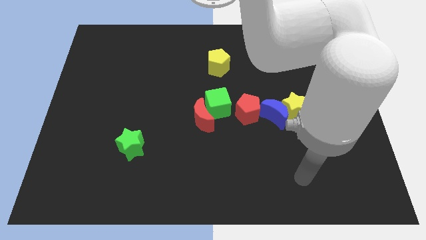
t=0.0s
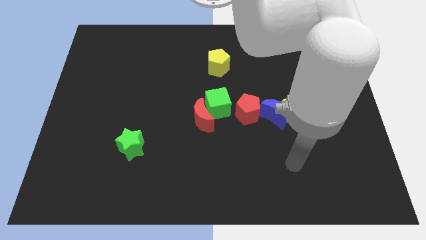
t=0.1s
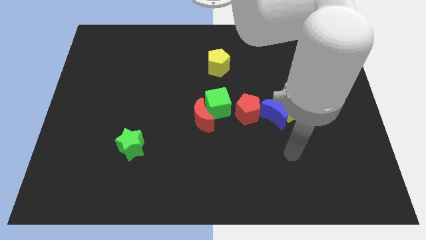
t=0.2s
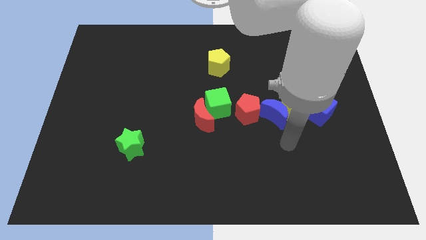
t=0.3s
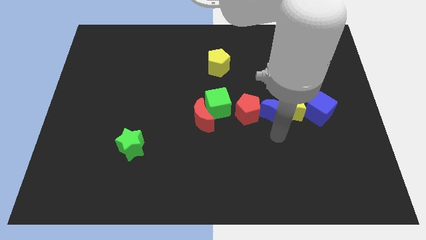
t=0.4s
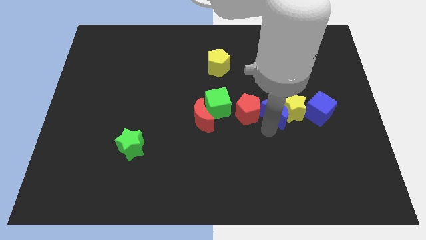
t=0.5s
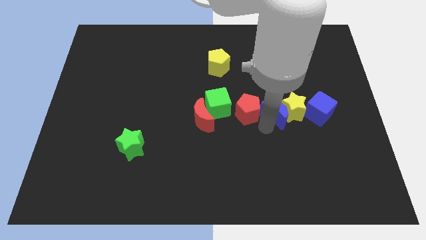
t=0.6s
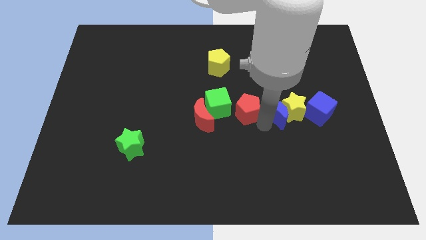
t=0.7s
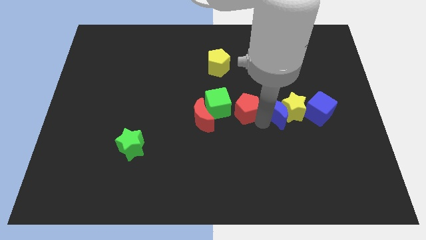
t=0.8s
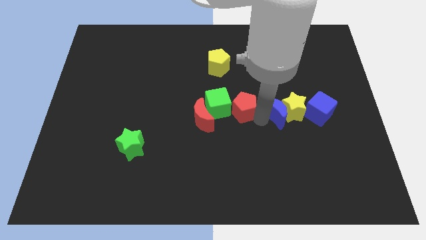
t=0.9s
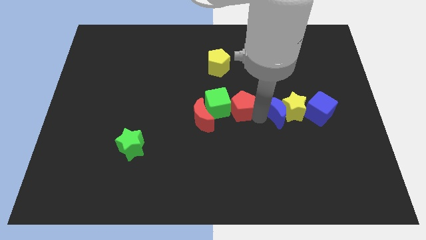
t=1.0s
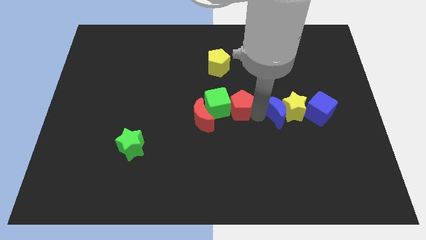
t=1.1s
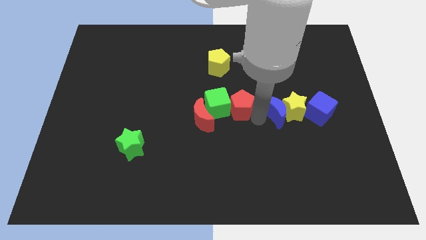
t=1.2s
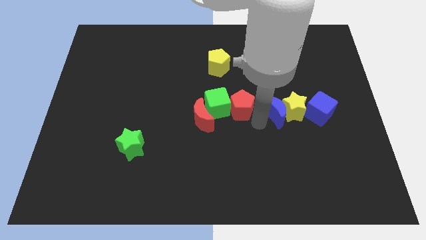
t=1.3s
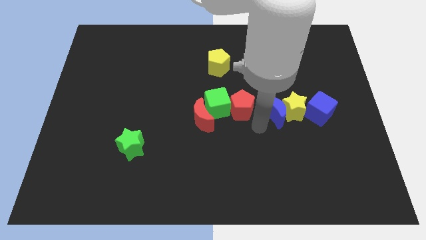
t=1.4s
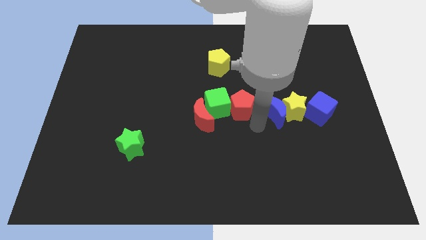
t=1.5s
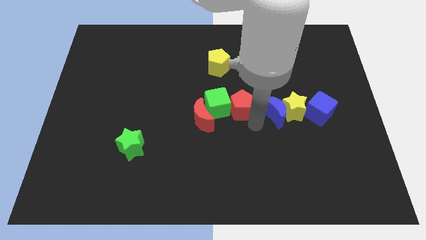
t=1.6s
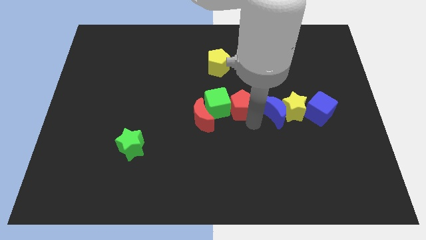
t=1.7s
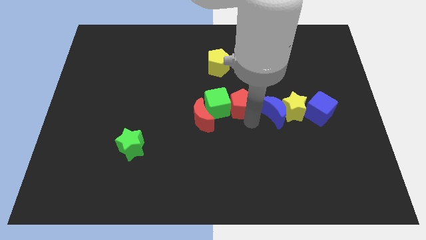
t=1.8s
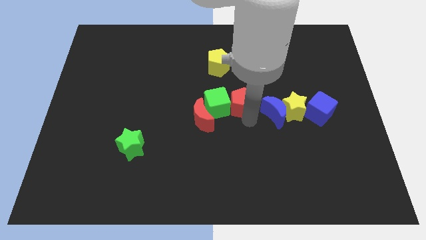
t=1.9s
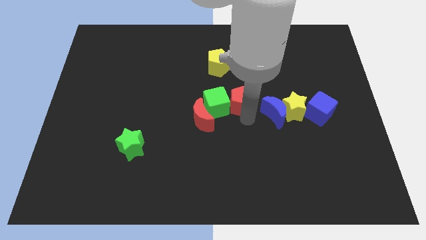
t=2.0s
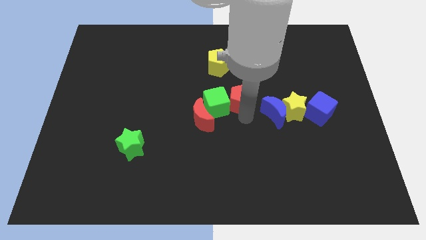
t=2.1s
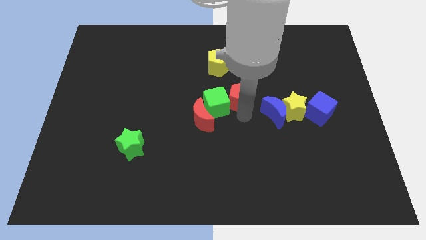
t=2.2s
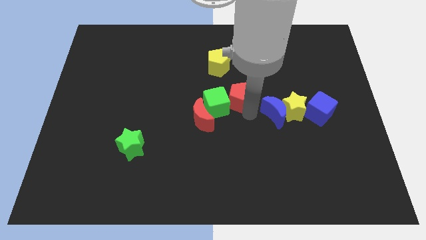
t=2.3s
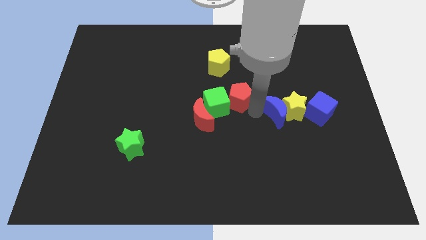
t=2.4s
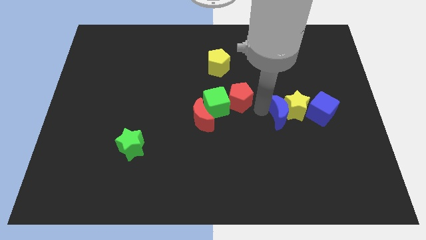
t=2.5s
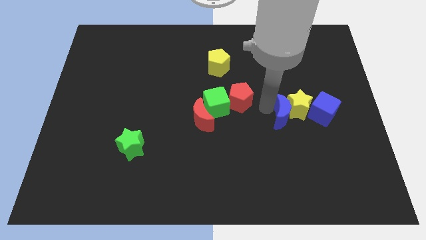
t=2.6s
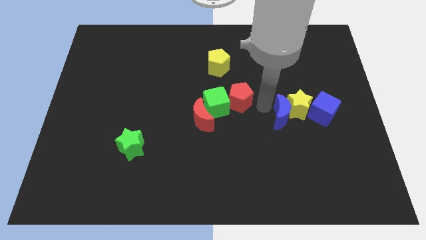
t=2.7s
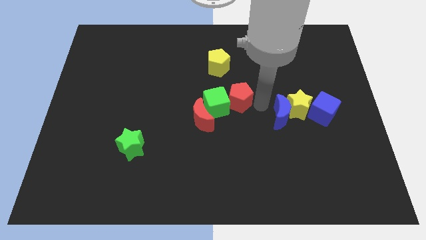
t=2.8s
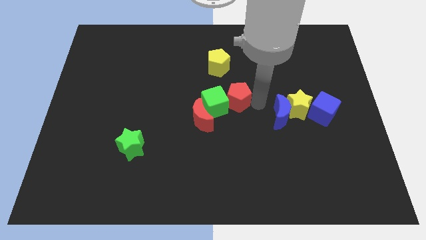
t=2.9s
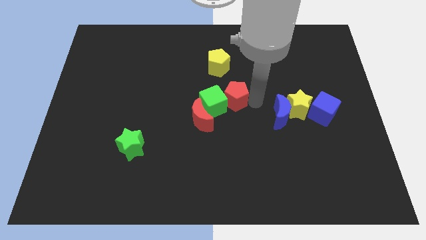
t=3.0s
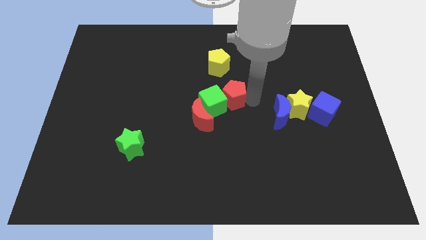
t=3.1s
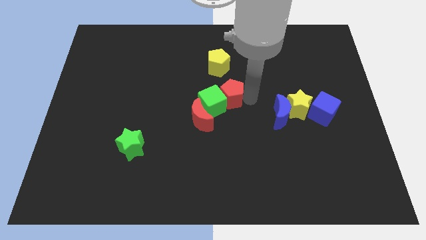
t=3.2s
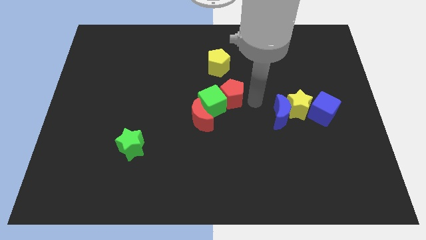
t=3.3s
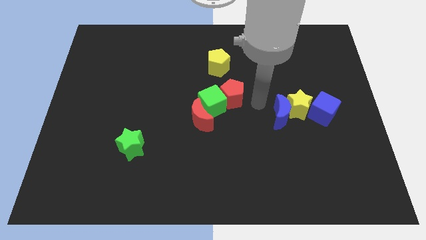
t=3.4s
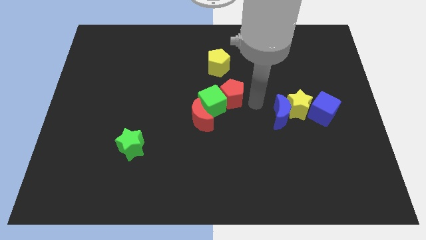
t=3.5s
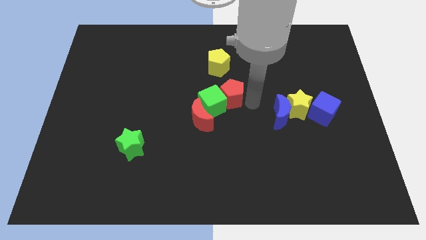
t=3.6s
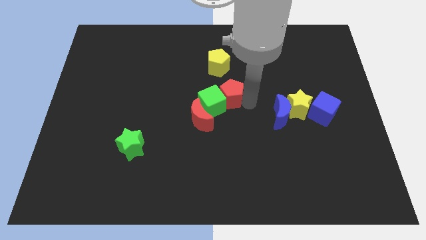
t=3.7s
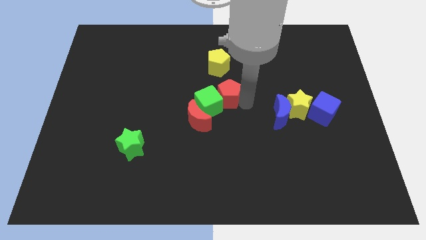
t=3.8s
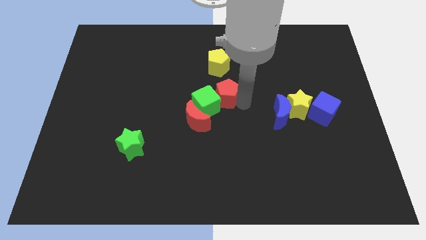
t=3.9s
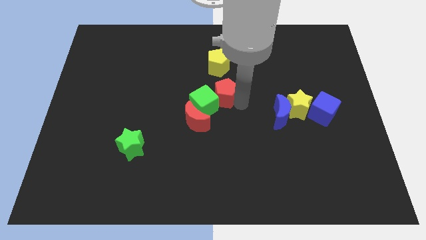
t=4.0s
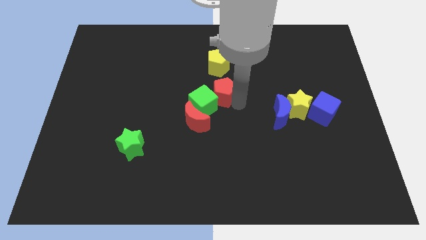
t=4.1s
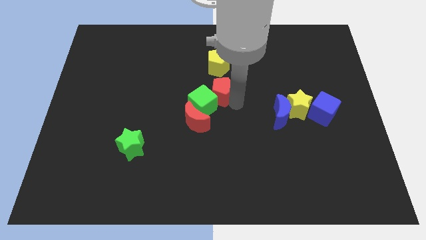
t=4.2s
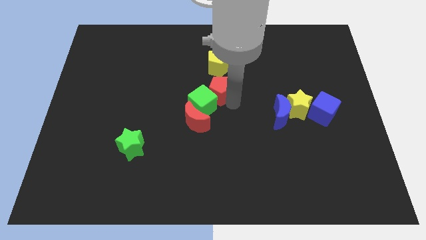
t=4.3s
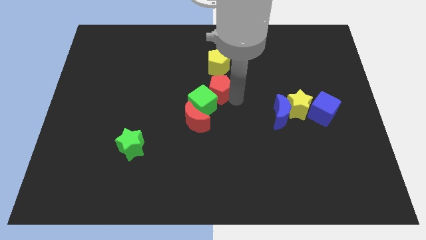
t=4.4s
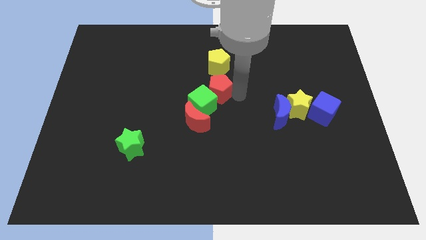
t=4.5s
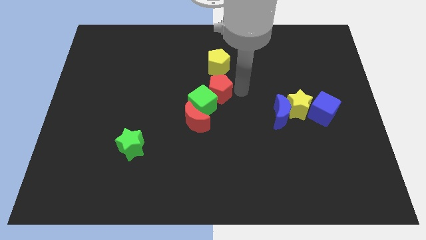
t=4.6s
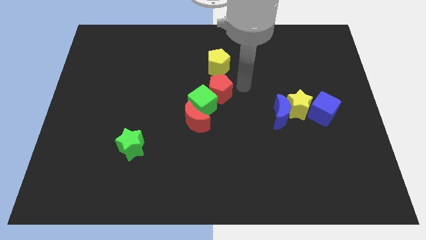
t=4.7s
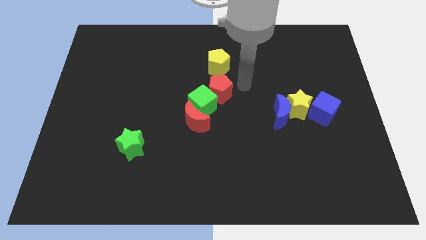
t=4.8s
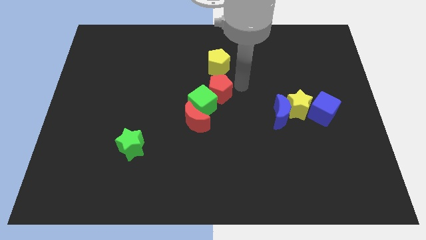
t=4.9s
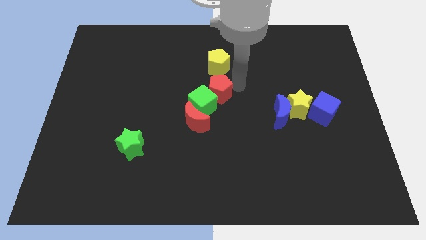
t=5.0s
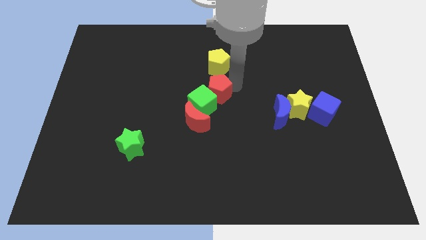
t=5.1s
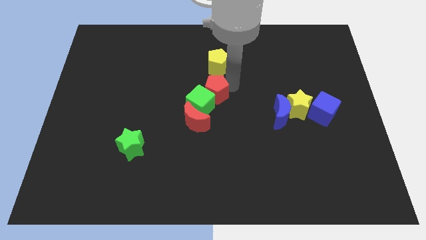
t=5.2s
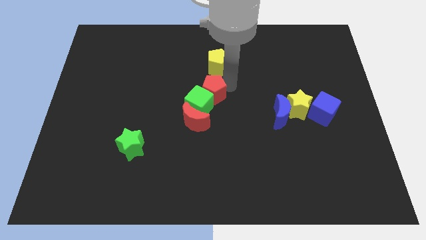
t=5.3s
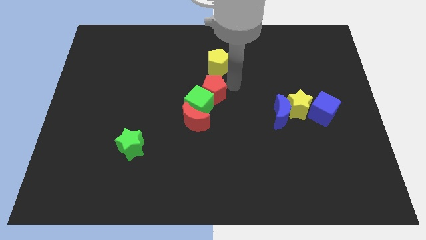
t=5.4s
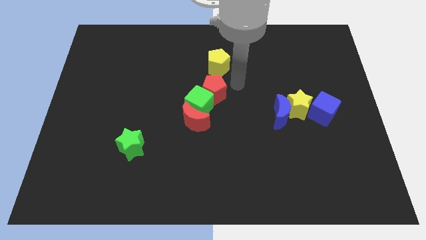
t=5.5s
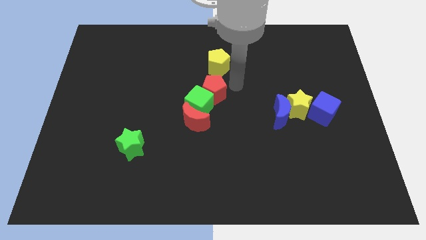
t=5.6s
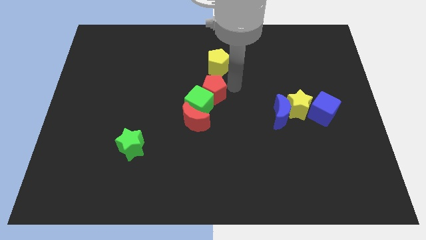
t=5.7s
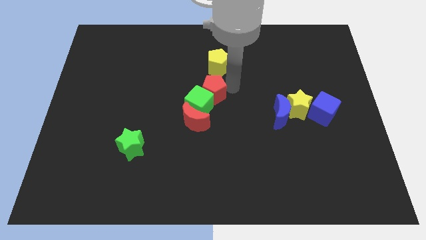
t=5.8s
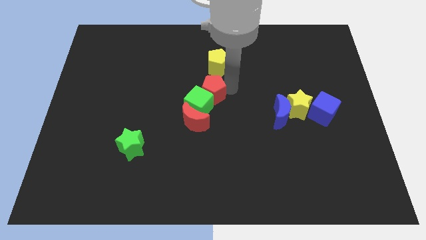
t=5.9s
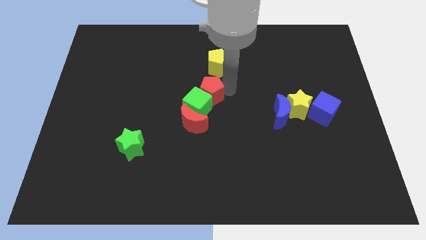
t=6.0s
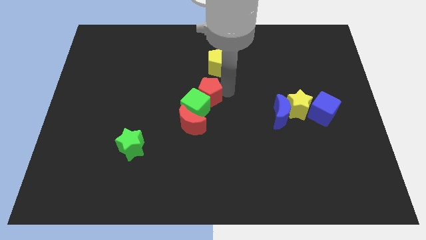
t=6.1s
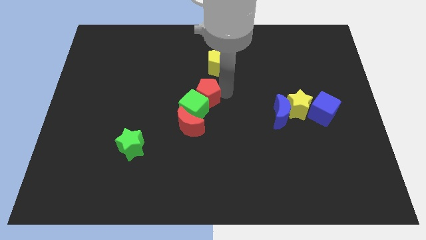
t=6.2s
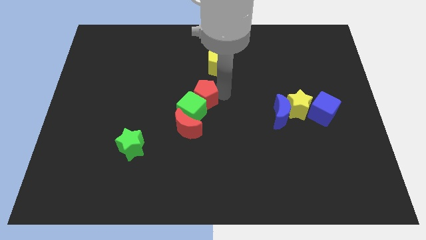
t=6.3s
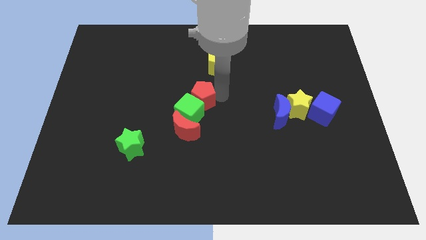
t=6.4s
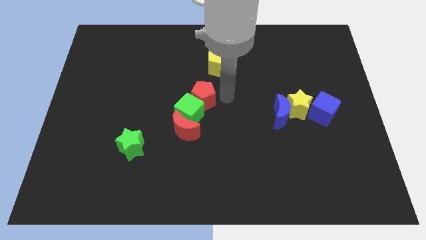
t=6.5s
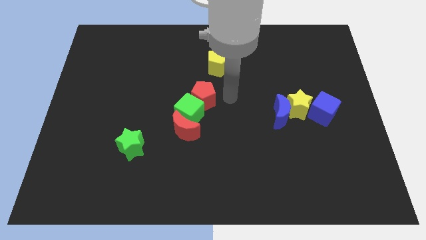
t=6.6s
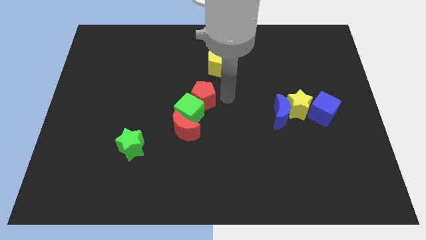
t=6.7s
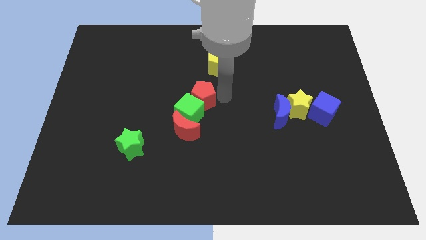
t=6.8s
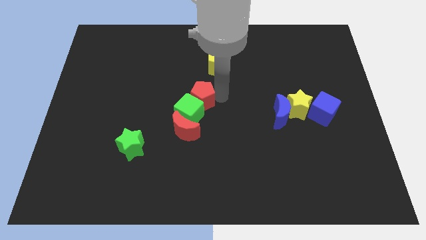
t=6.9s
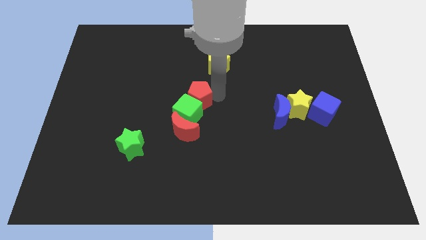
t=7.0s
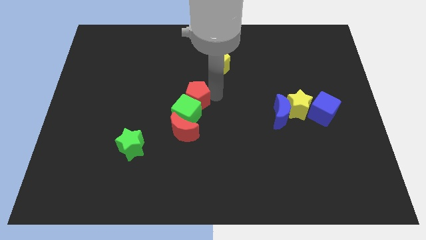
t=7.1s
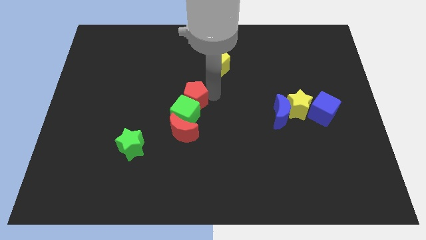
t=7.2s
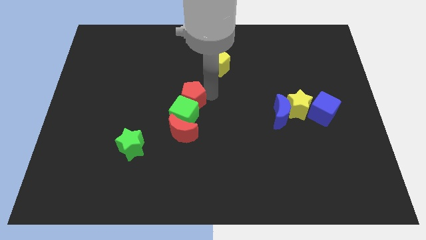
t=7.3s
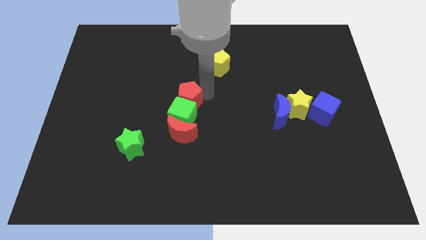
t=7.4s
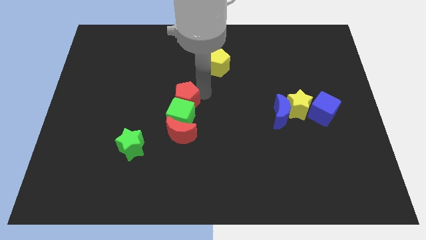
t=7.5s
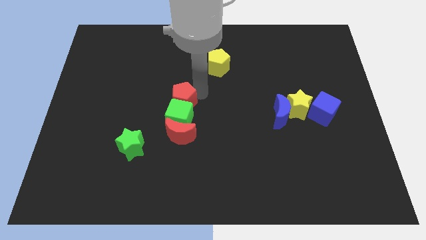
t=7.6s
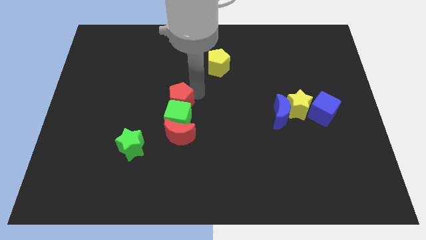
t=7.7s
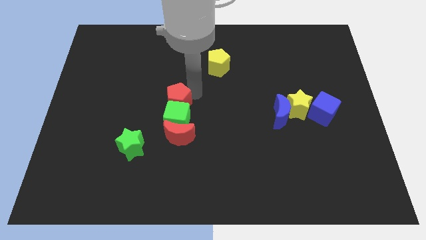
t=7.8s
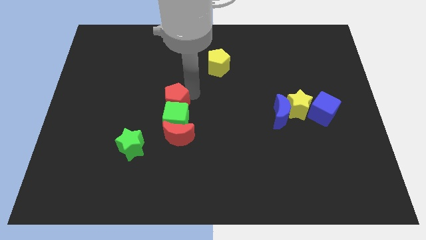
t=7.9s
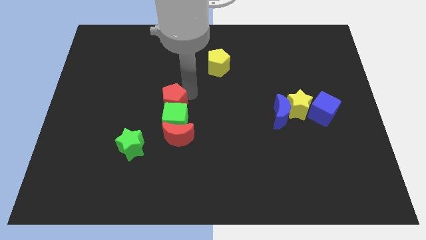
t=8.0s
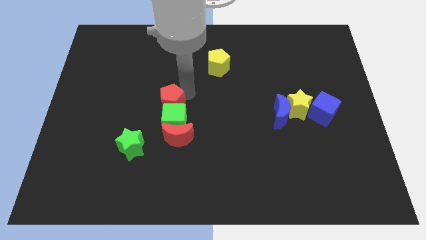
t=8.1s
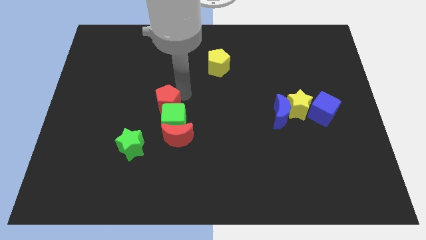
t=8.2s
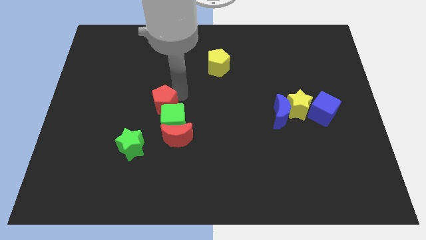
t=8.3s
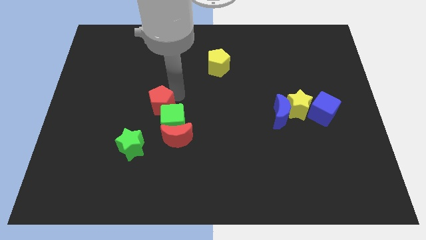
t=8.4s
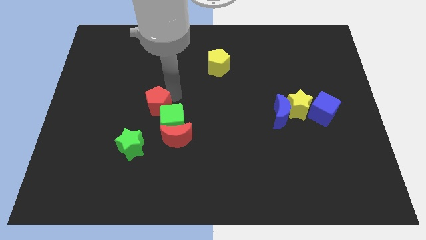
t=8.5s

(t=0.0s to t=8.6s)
slide the red pentagon above the green star
